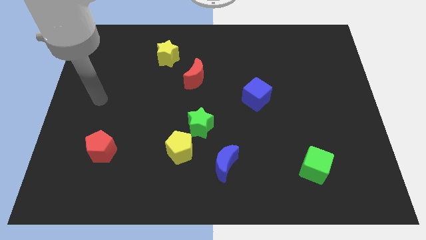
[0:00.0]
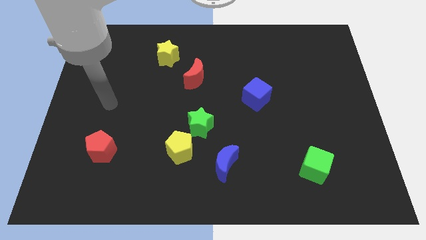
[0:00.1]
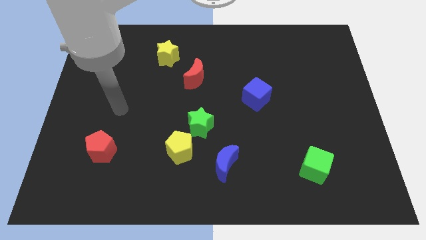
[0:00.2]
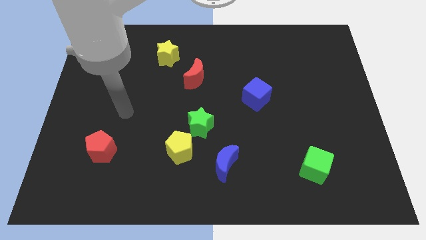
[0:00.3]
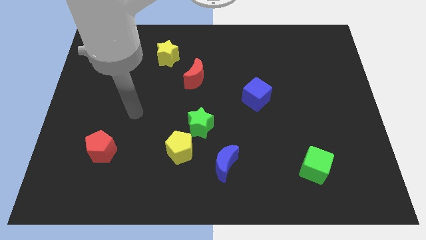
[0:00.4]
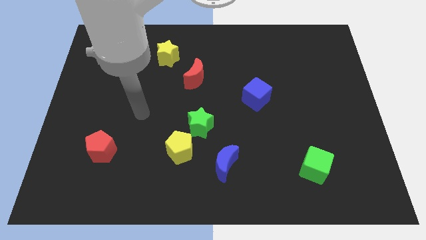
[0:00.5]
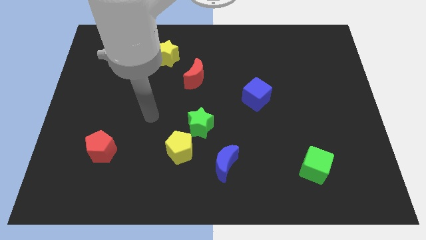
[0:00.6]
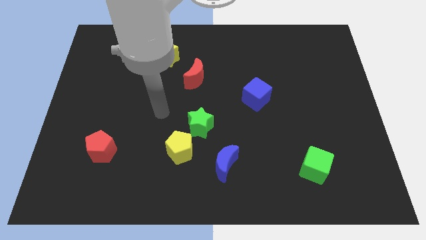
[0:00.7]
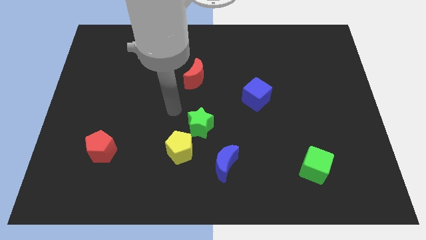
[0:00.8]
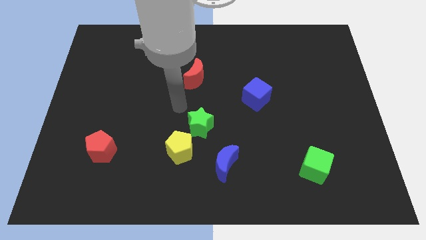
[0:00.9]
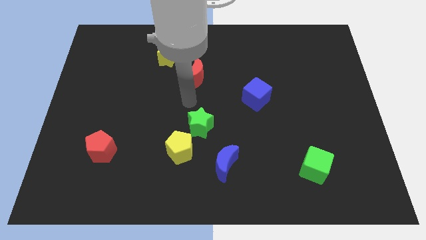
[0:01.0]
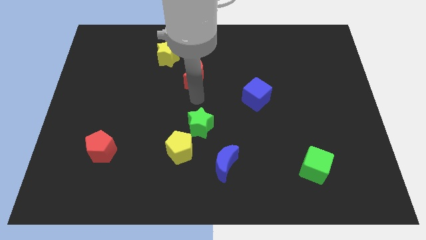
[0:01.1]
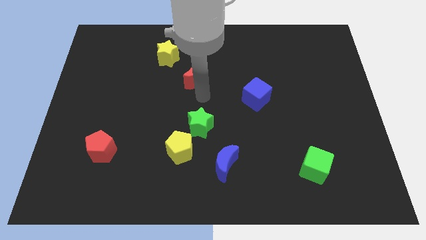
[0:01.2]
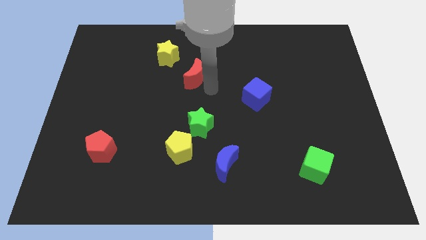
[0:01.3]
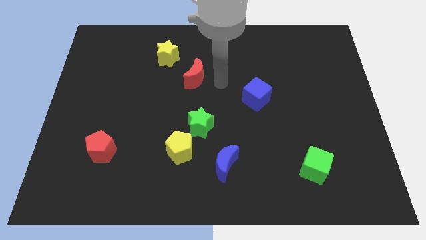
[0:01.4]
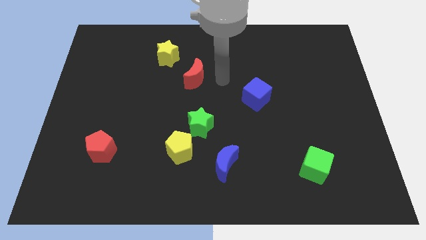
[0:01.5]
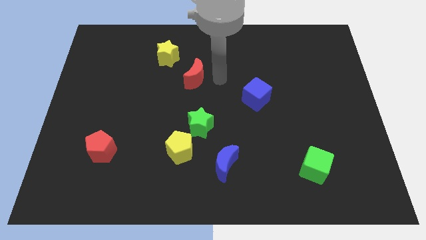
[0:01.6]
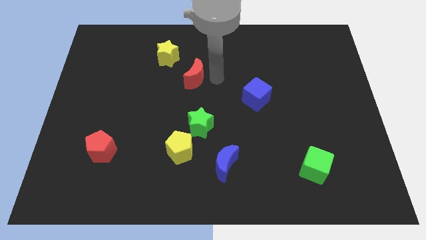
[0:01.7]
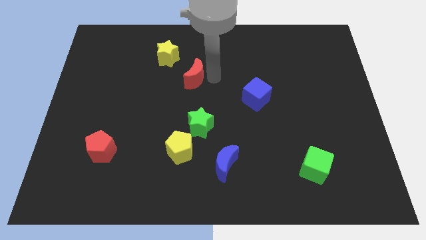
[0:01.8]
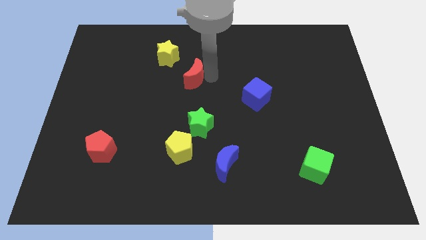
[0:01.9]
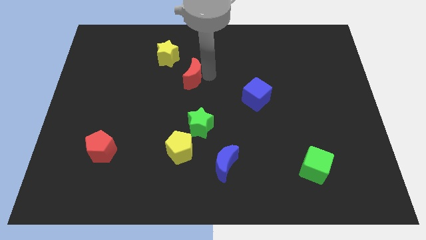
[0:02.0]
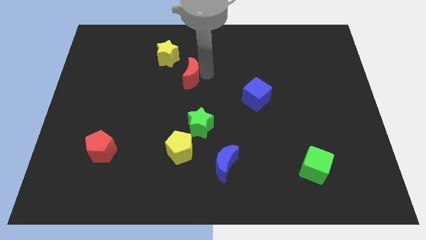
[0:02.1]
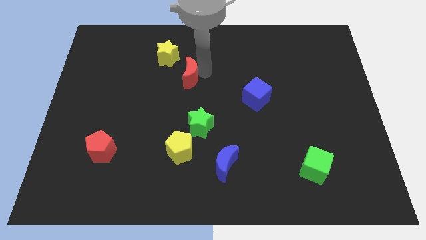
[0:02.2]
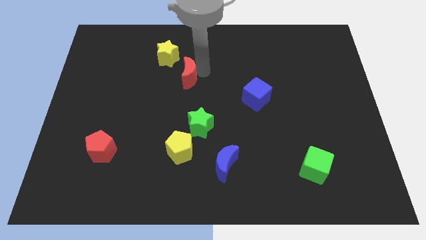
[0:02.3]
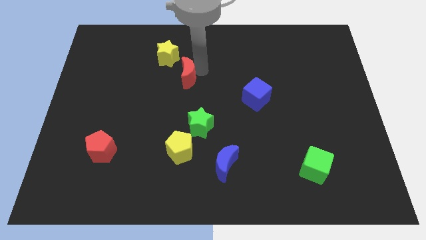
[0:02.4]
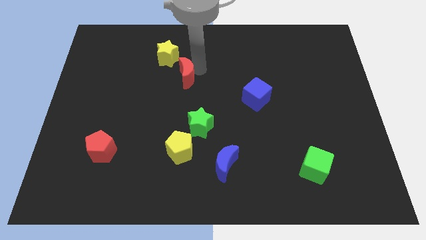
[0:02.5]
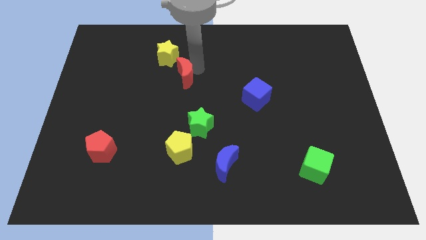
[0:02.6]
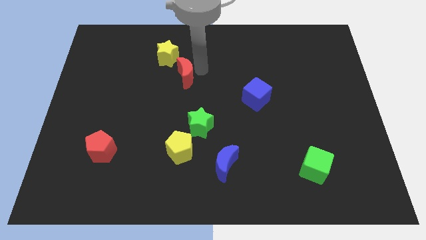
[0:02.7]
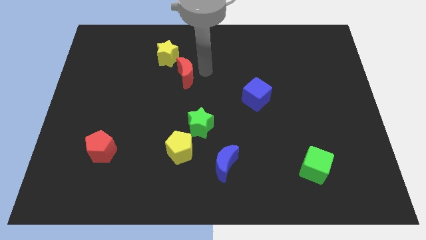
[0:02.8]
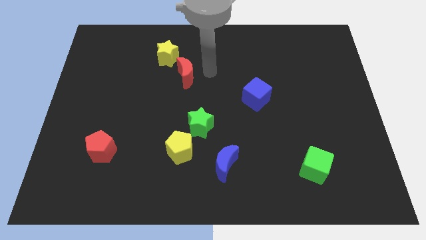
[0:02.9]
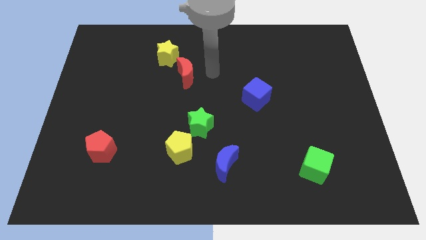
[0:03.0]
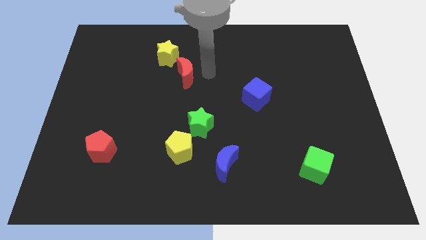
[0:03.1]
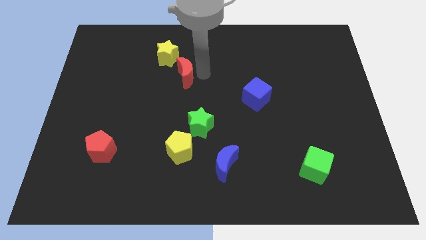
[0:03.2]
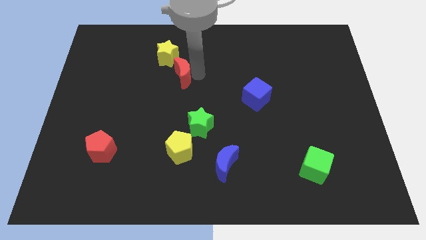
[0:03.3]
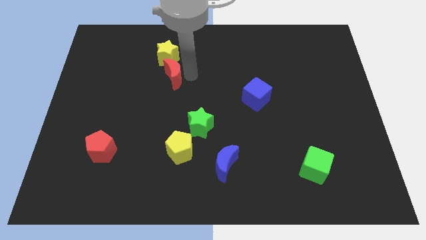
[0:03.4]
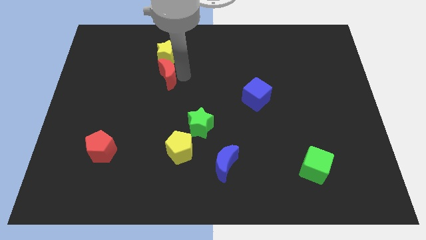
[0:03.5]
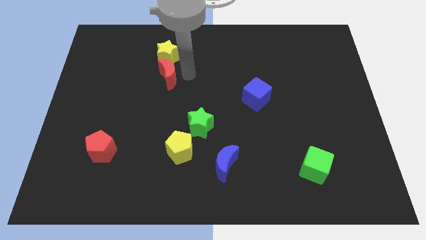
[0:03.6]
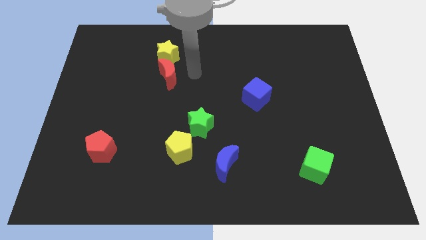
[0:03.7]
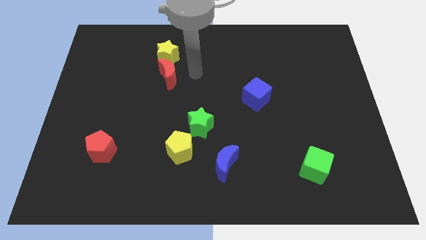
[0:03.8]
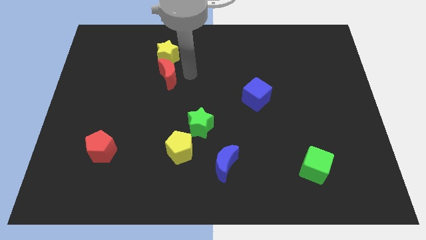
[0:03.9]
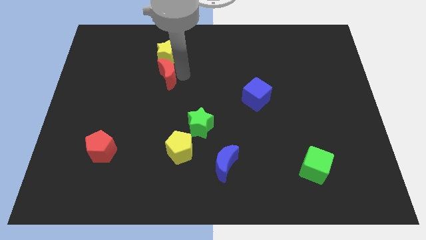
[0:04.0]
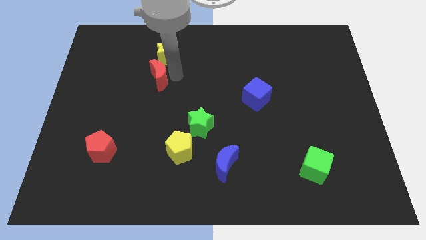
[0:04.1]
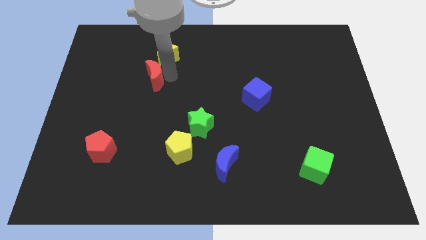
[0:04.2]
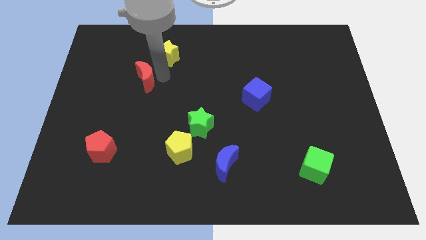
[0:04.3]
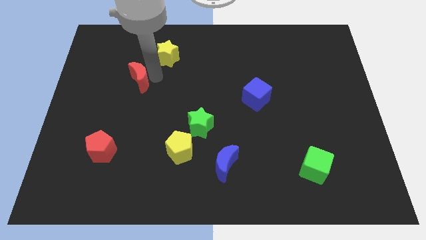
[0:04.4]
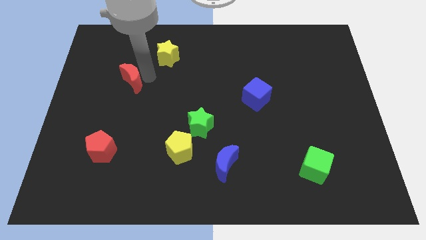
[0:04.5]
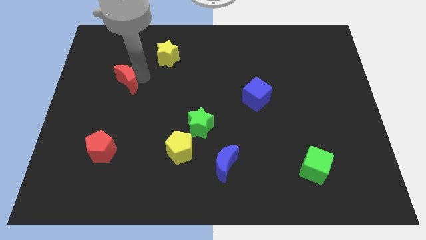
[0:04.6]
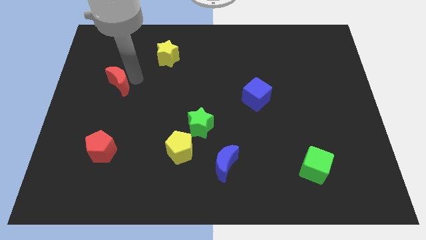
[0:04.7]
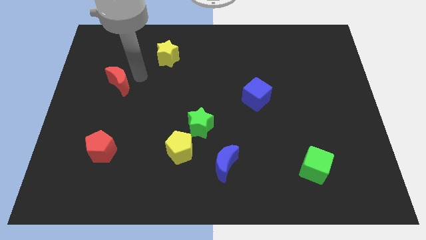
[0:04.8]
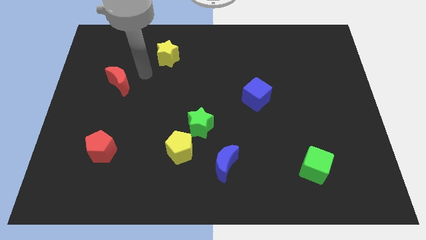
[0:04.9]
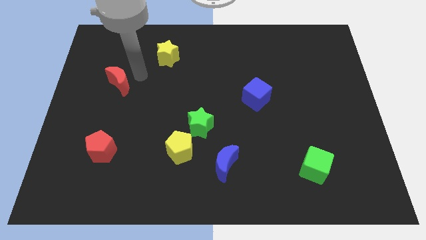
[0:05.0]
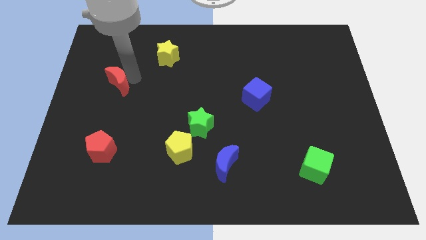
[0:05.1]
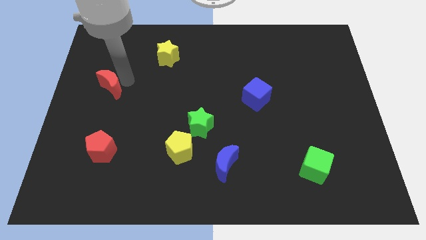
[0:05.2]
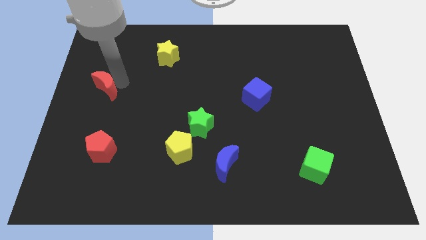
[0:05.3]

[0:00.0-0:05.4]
push the red moon to the center left

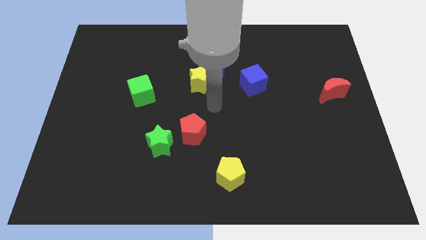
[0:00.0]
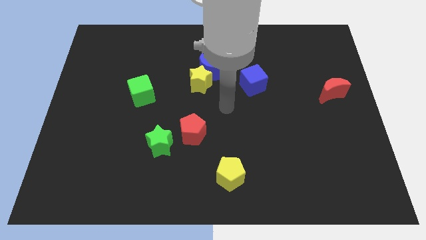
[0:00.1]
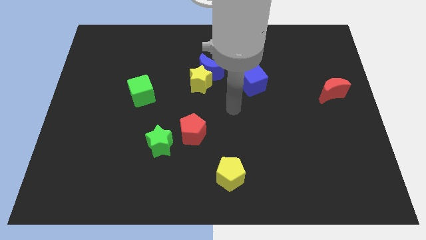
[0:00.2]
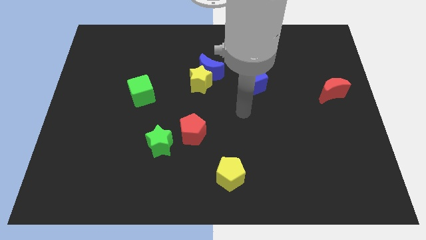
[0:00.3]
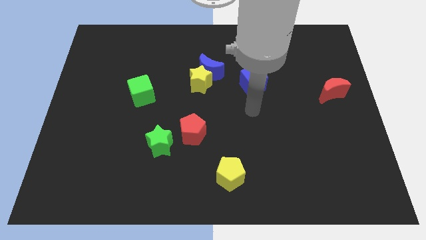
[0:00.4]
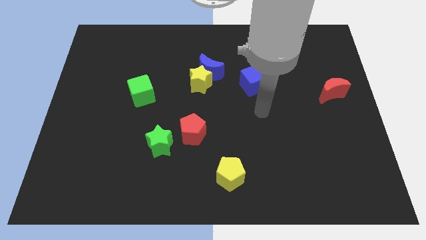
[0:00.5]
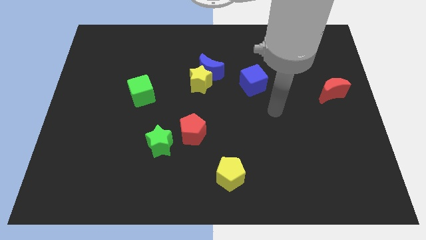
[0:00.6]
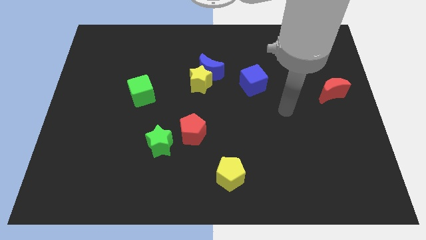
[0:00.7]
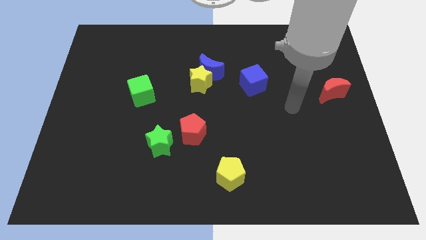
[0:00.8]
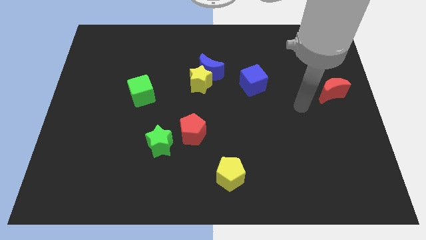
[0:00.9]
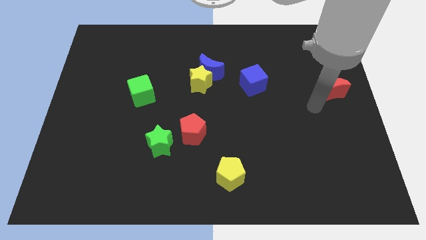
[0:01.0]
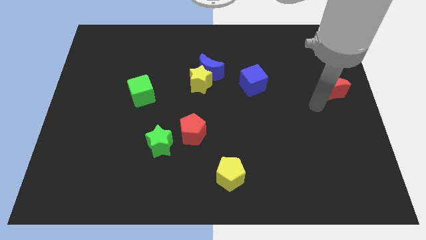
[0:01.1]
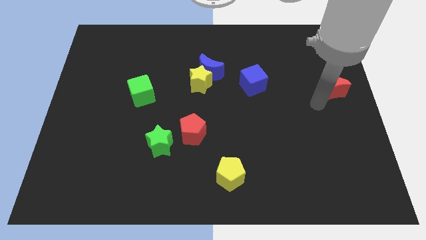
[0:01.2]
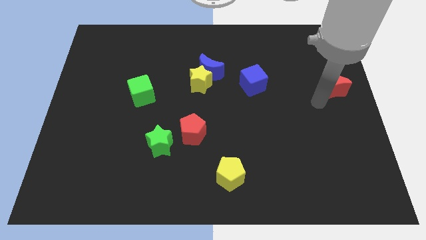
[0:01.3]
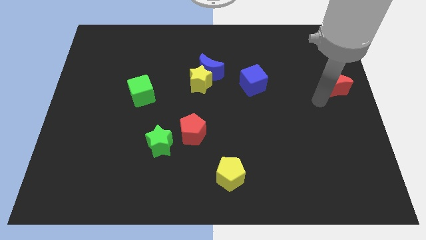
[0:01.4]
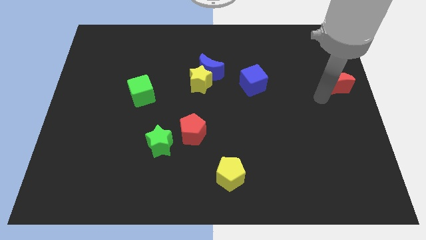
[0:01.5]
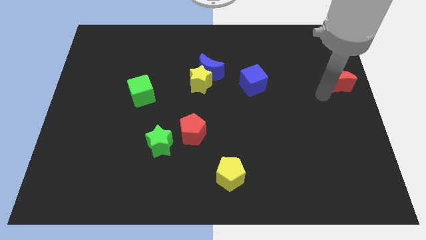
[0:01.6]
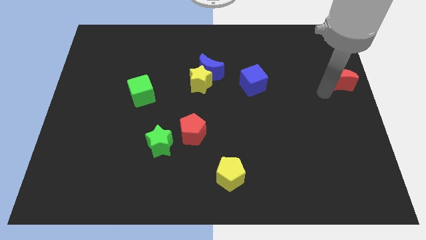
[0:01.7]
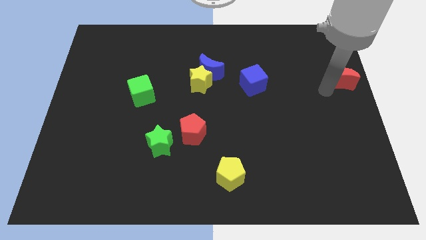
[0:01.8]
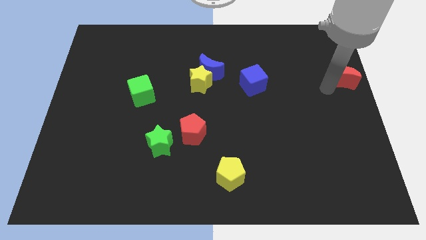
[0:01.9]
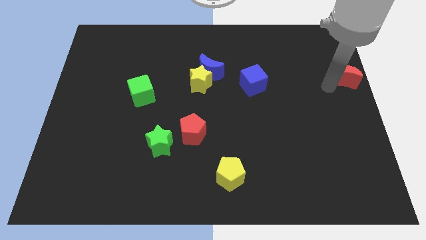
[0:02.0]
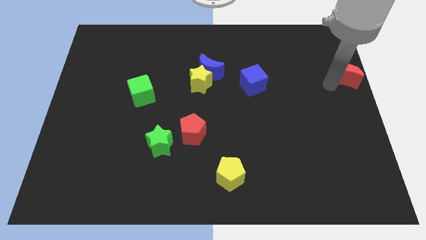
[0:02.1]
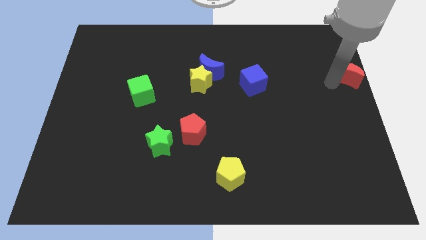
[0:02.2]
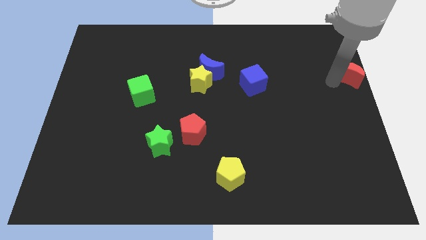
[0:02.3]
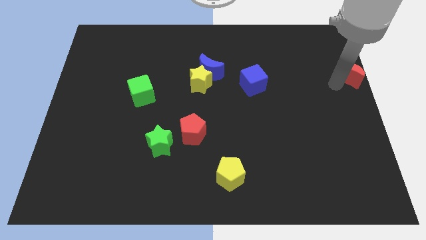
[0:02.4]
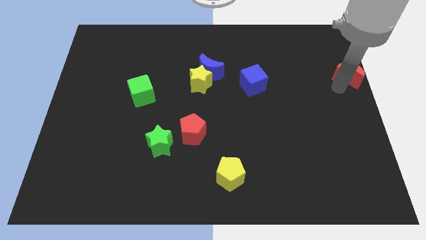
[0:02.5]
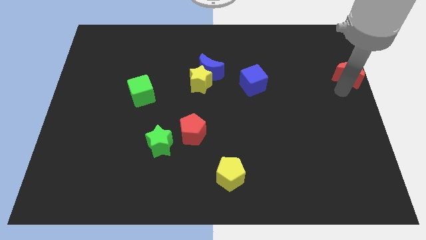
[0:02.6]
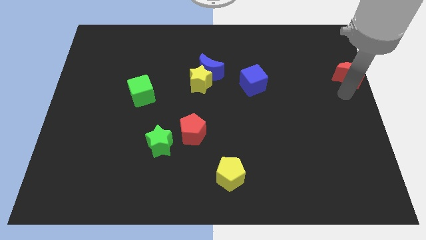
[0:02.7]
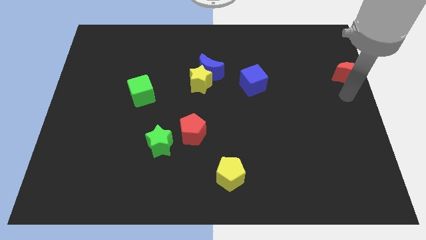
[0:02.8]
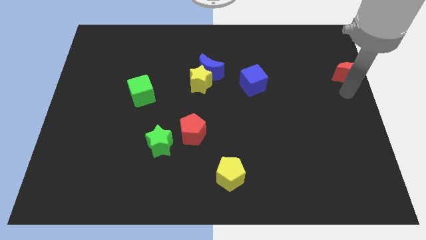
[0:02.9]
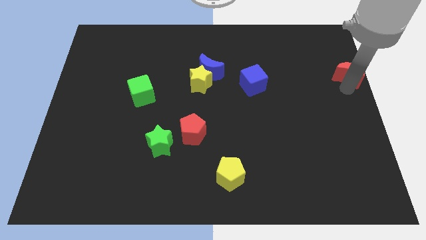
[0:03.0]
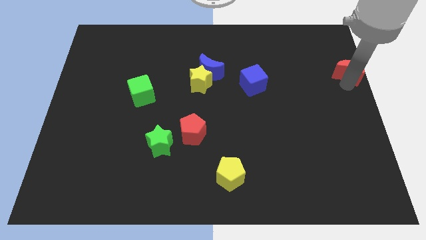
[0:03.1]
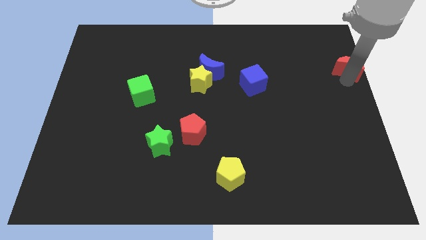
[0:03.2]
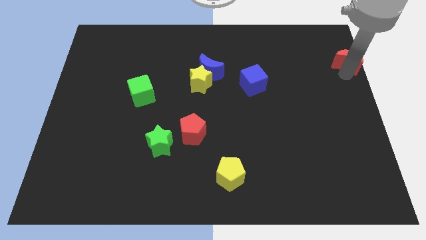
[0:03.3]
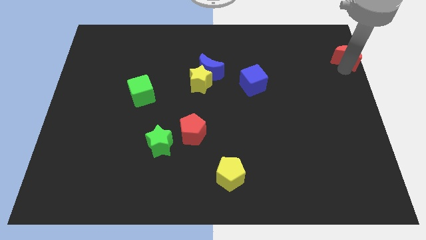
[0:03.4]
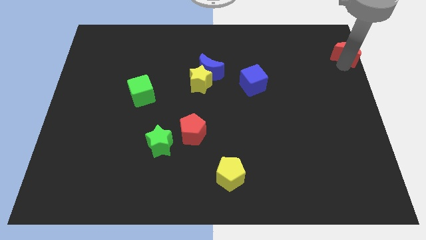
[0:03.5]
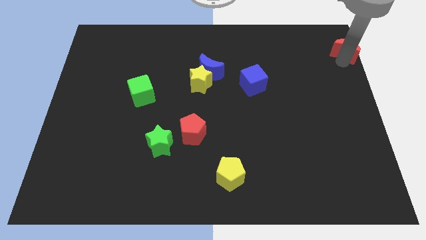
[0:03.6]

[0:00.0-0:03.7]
push the red moon to the top right
